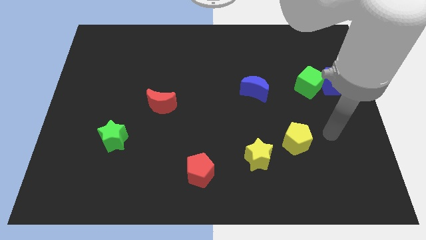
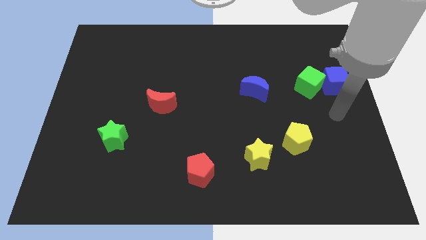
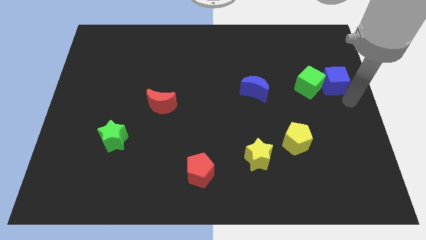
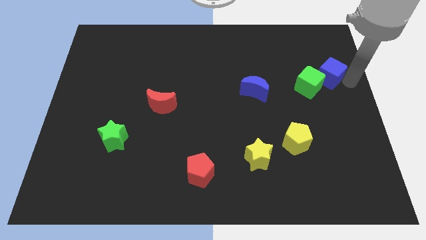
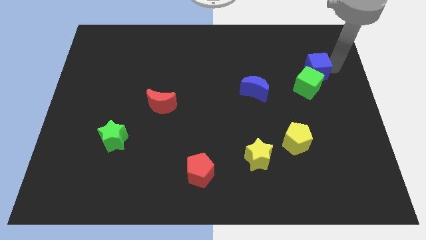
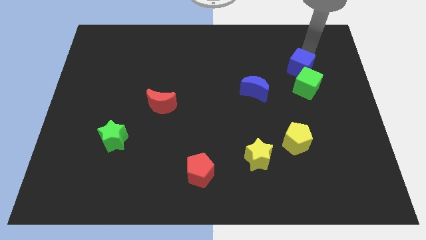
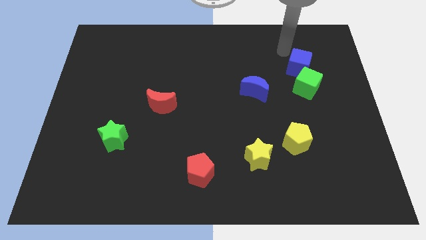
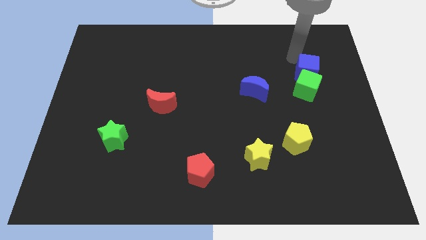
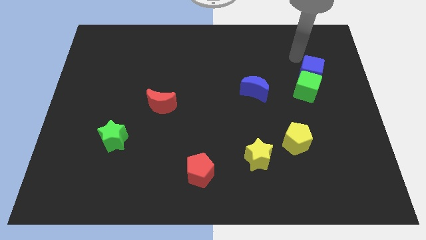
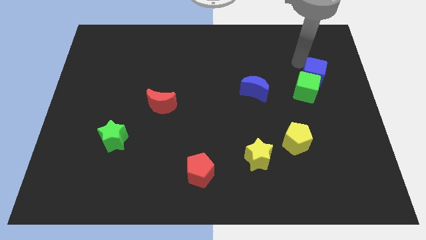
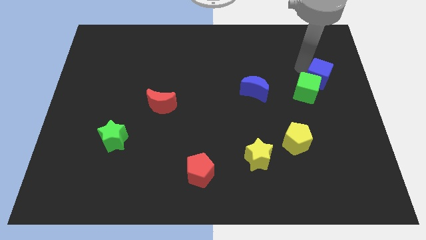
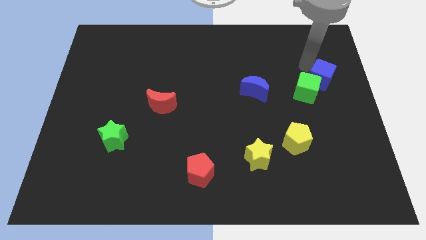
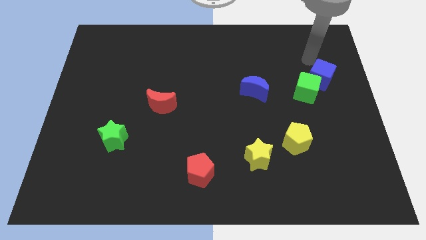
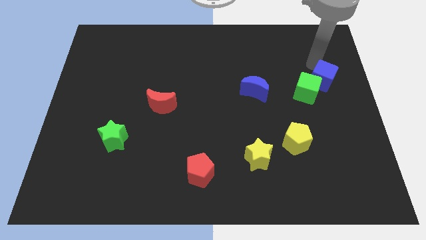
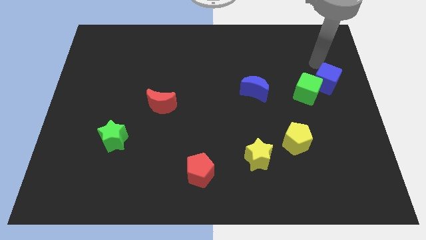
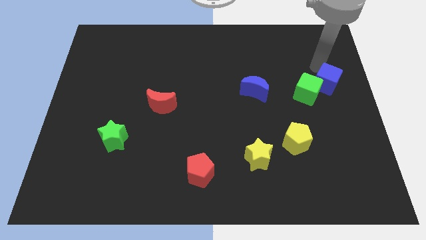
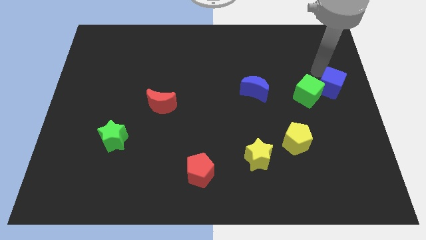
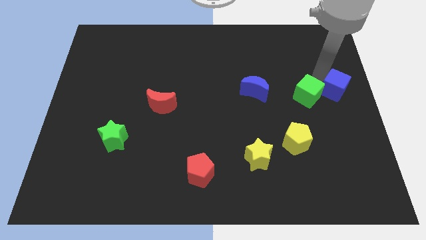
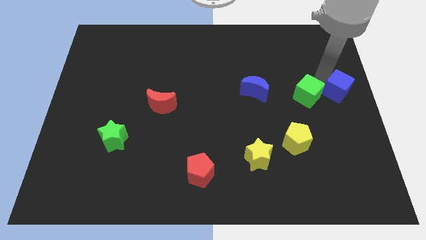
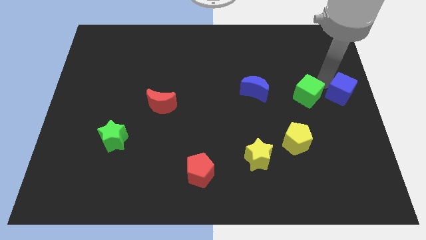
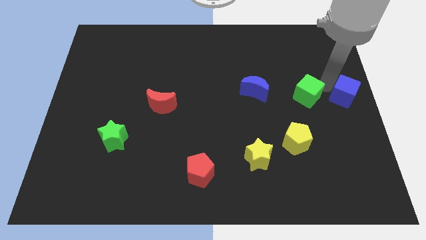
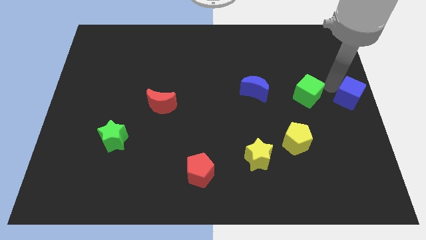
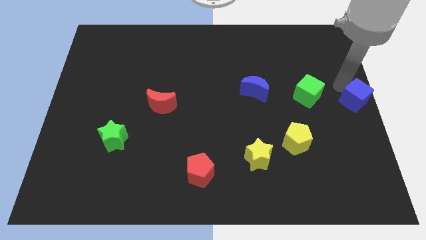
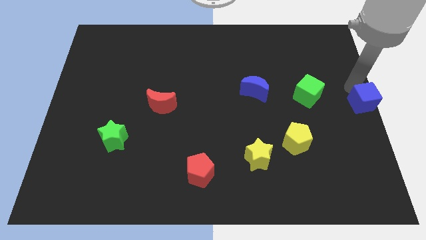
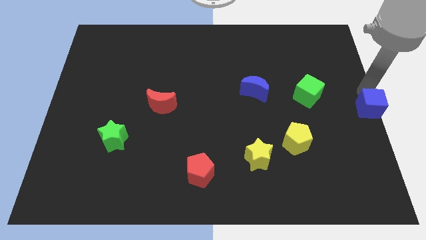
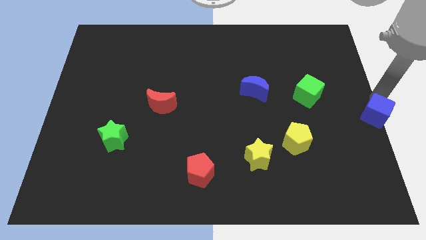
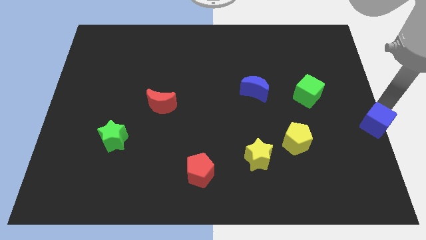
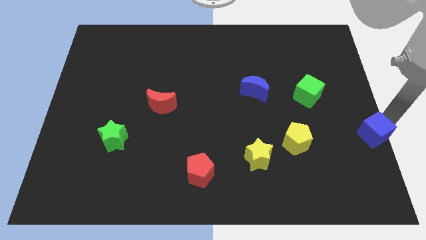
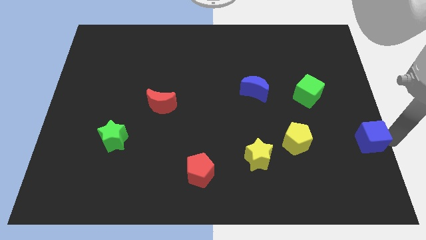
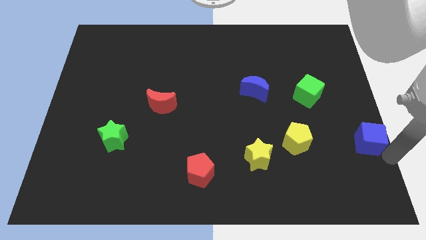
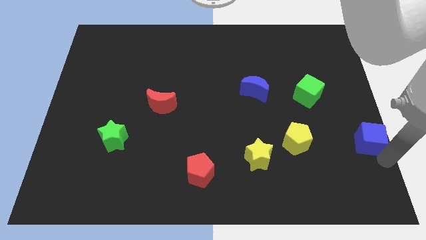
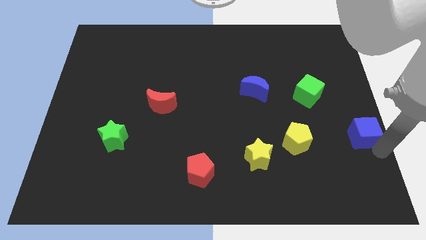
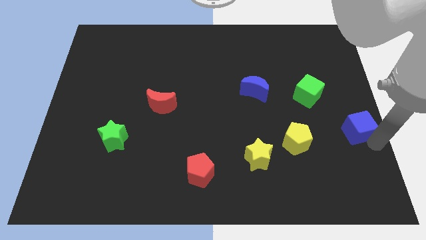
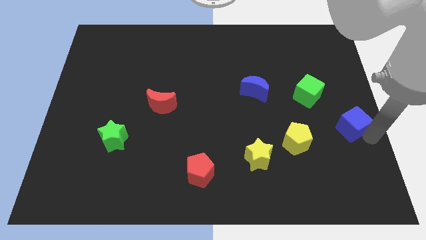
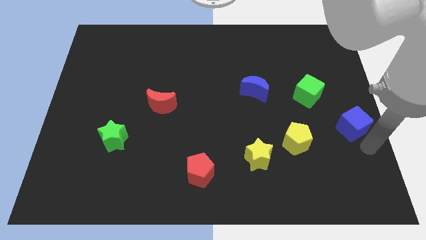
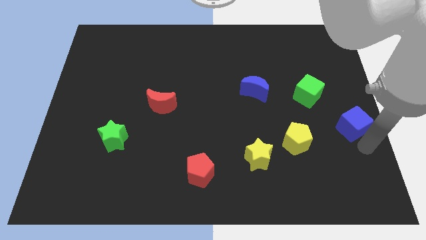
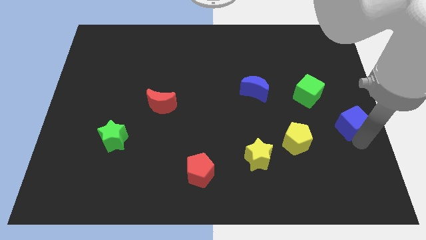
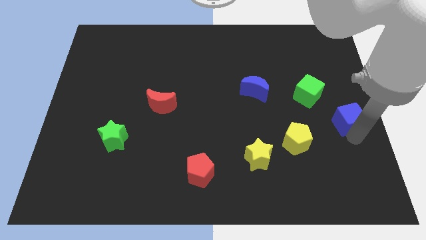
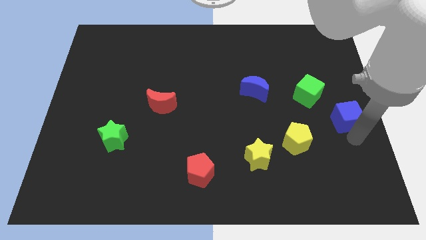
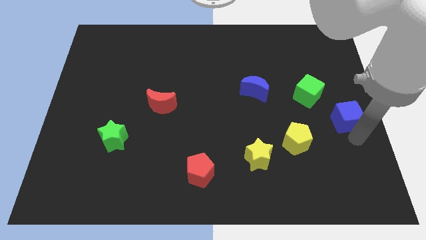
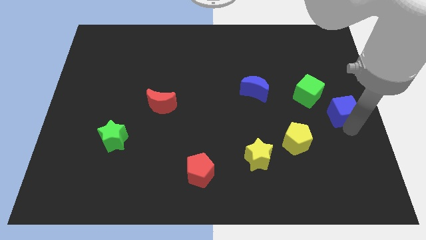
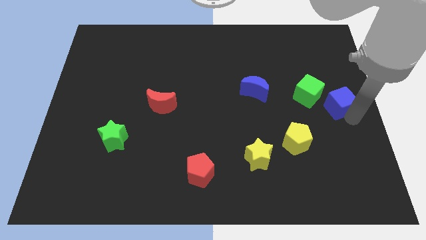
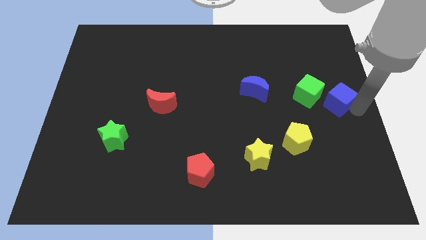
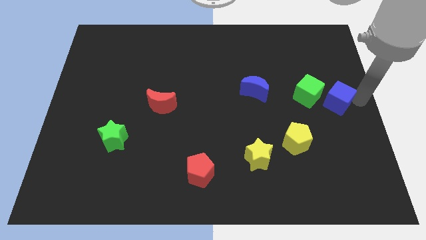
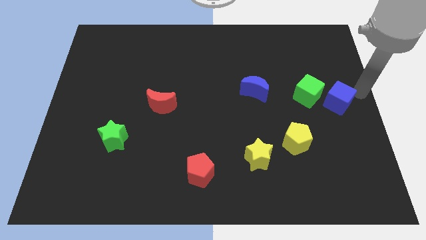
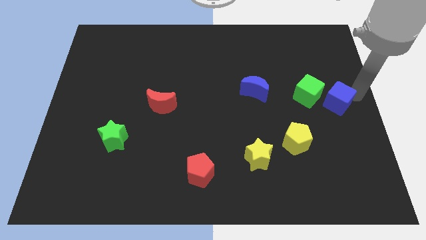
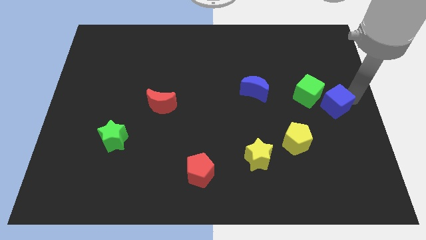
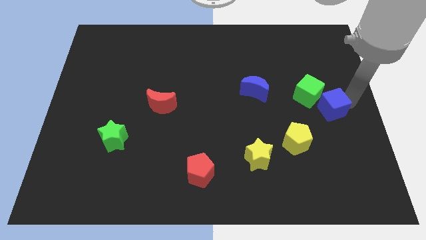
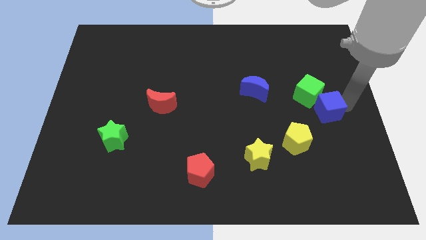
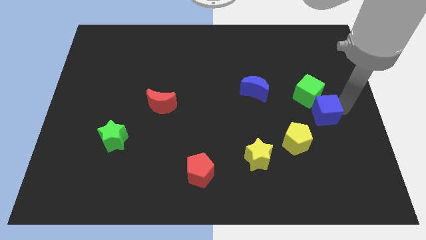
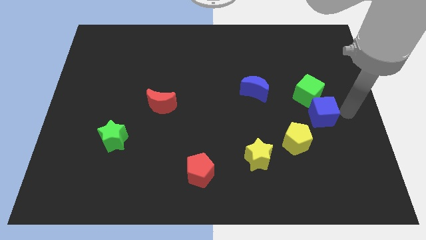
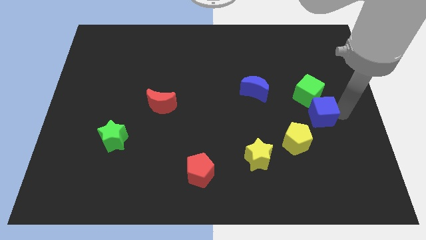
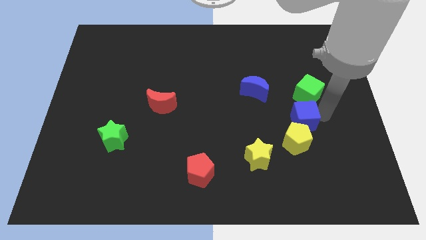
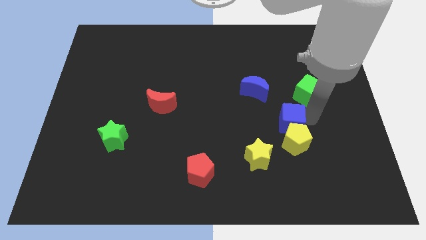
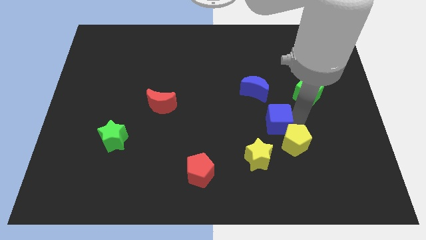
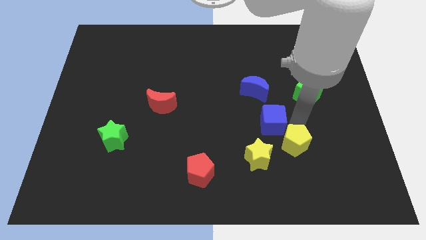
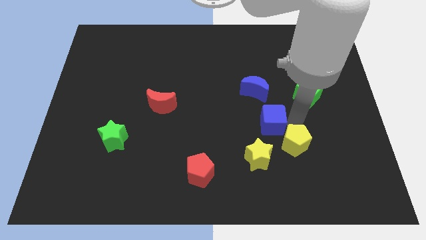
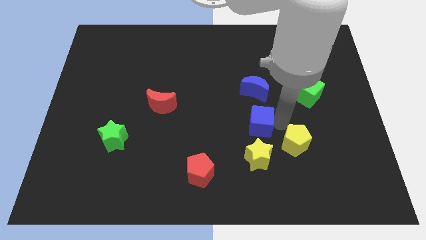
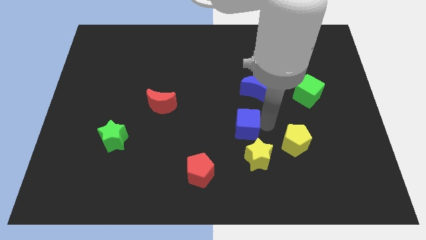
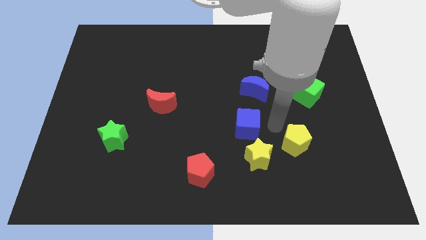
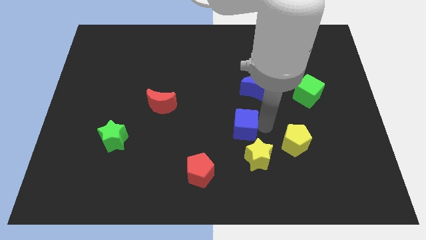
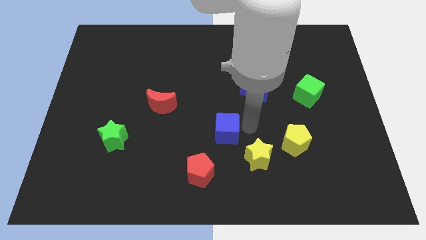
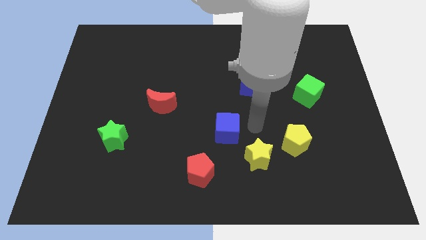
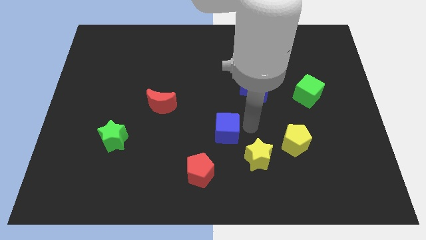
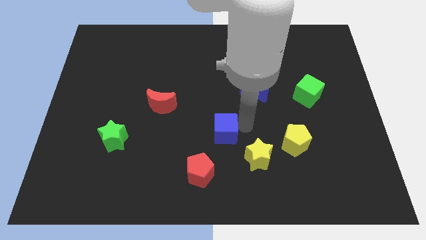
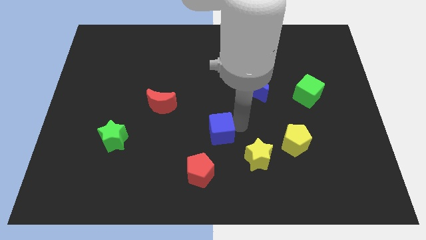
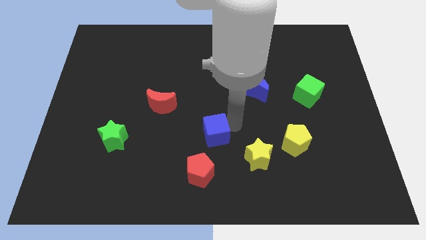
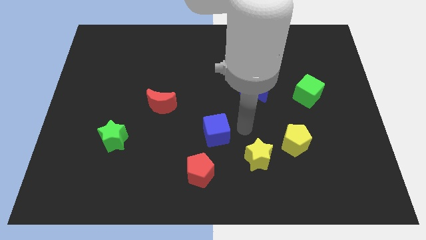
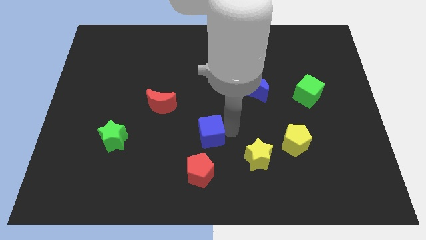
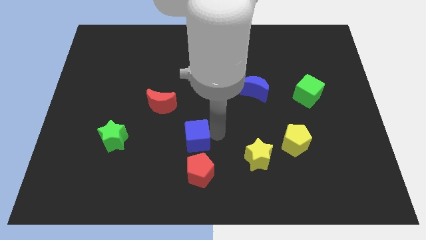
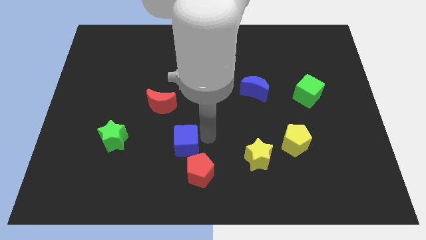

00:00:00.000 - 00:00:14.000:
move the blue cube right of the green star
